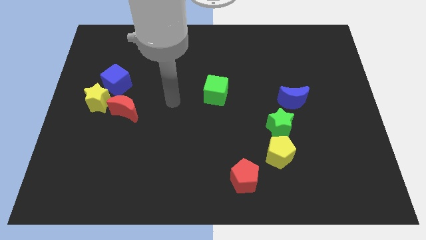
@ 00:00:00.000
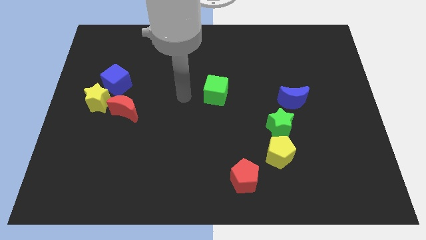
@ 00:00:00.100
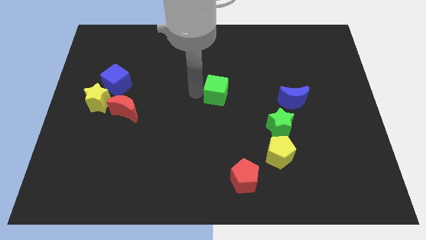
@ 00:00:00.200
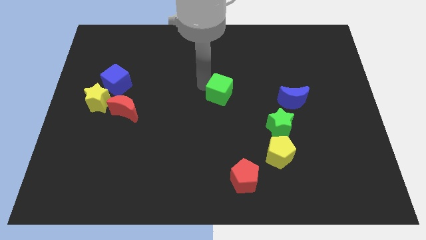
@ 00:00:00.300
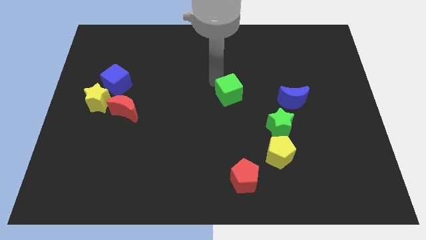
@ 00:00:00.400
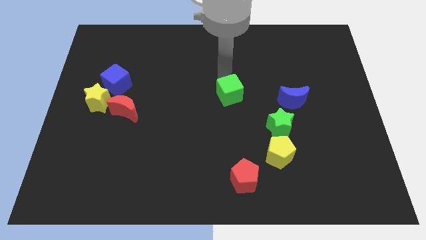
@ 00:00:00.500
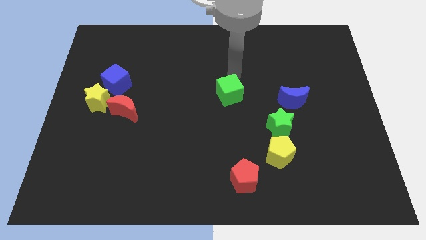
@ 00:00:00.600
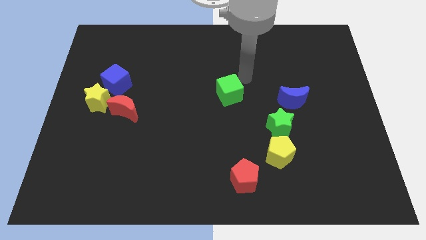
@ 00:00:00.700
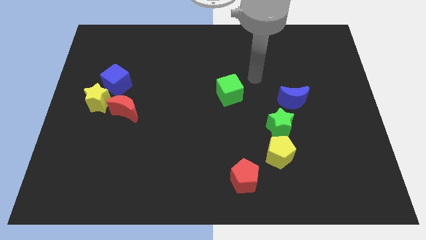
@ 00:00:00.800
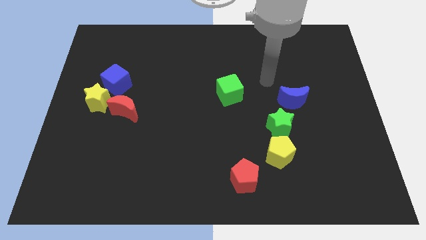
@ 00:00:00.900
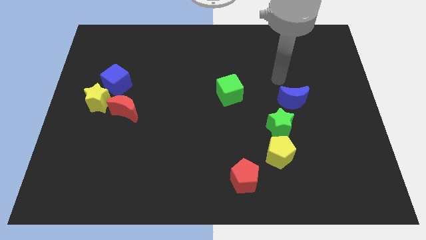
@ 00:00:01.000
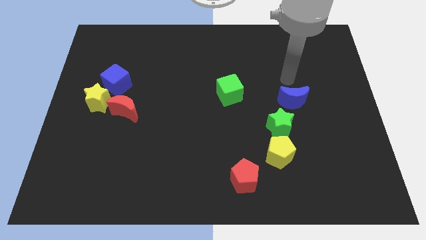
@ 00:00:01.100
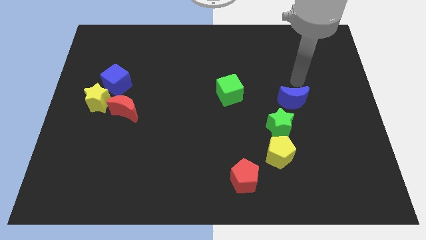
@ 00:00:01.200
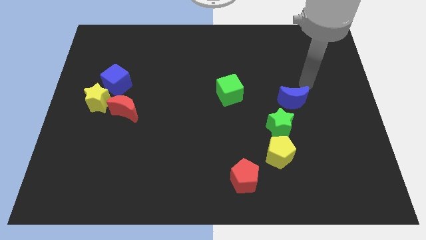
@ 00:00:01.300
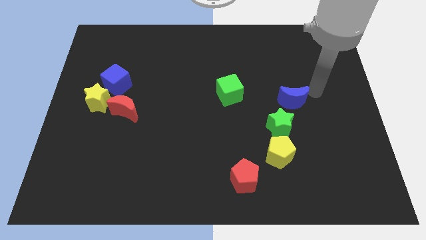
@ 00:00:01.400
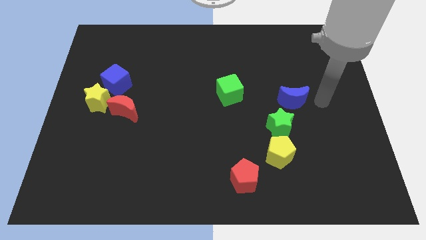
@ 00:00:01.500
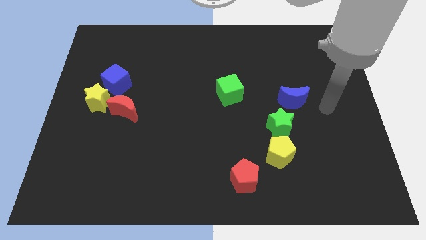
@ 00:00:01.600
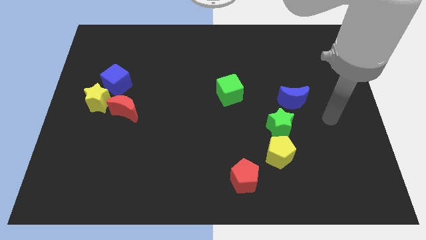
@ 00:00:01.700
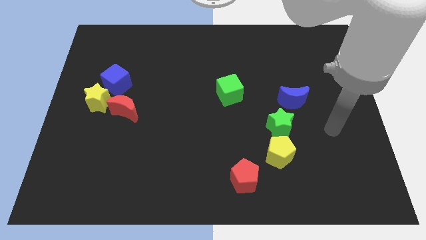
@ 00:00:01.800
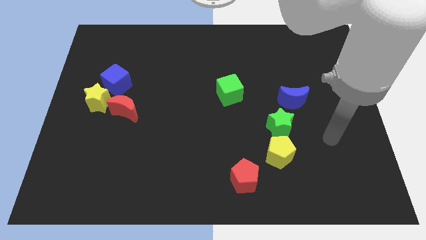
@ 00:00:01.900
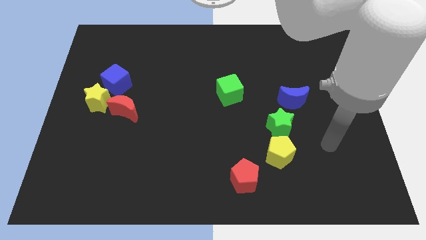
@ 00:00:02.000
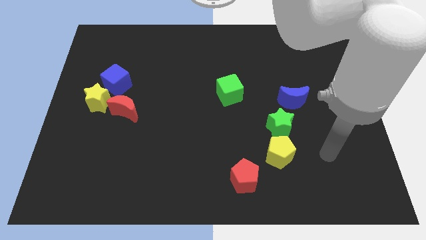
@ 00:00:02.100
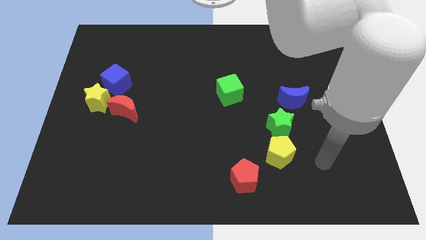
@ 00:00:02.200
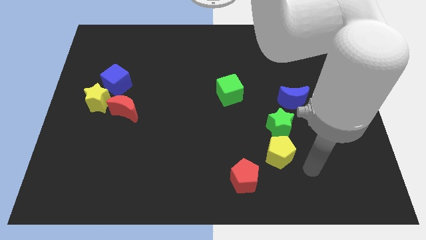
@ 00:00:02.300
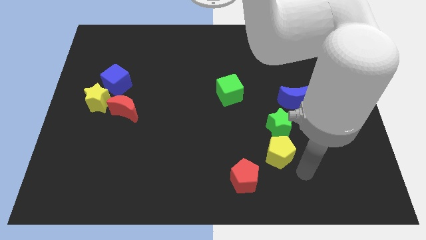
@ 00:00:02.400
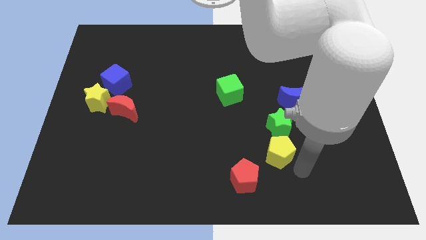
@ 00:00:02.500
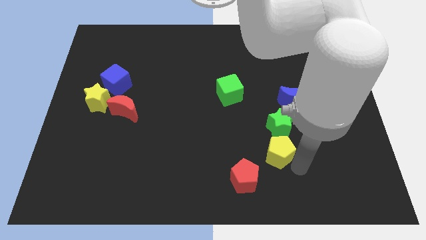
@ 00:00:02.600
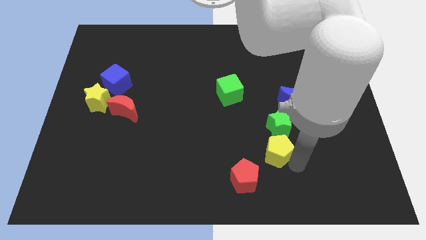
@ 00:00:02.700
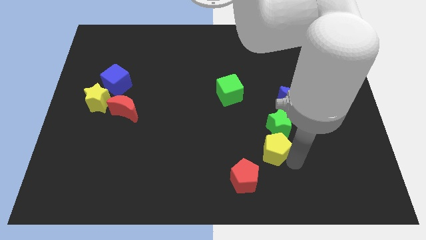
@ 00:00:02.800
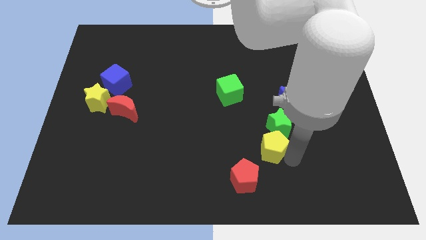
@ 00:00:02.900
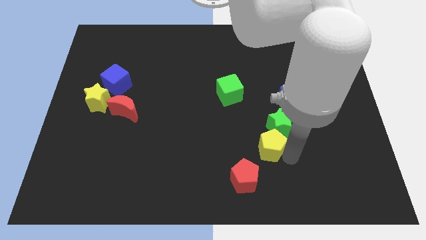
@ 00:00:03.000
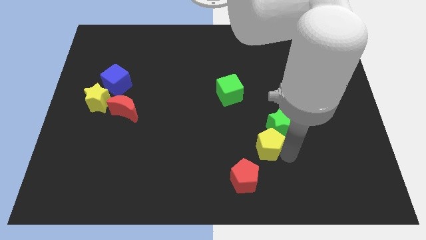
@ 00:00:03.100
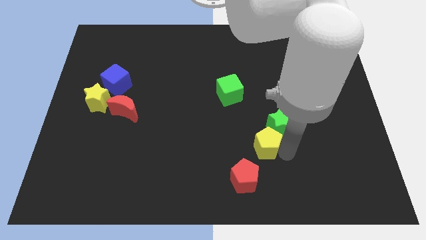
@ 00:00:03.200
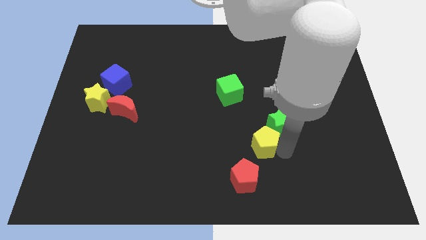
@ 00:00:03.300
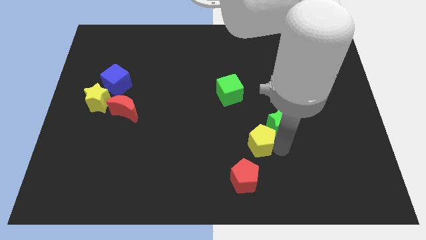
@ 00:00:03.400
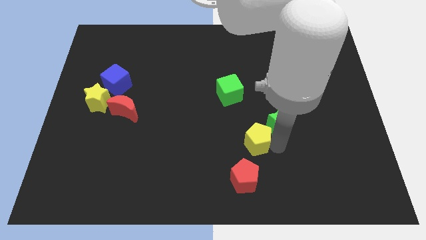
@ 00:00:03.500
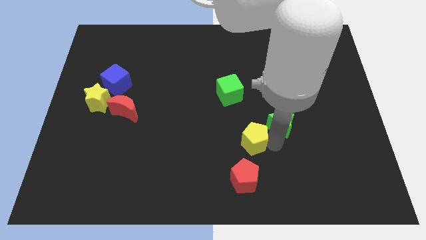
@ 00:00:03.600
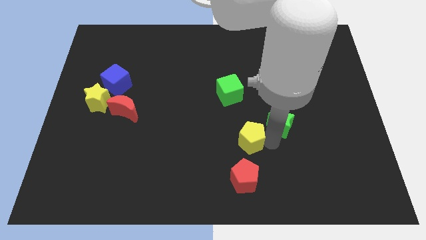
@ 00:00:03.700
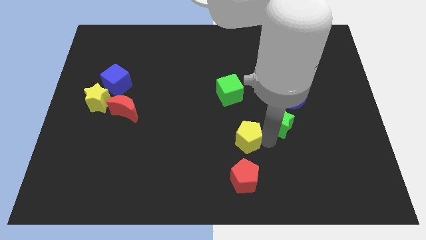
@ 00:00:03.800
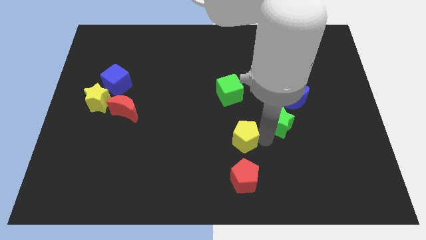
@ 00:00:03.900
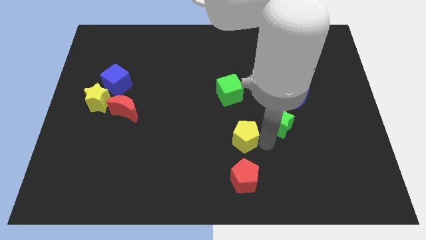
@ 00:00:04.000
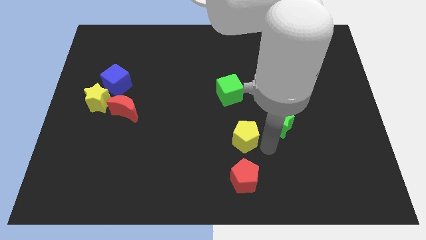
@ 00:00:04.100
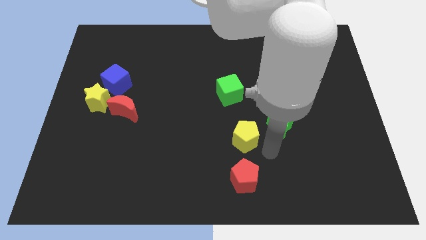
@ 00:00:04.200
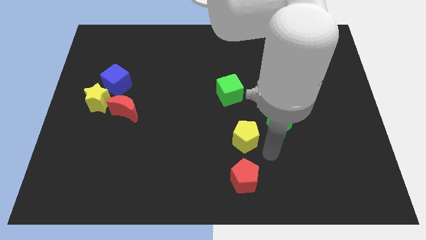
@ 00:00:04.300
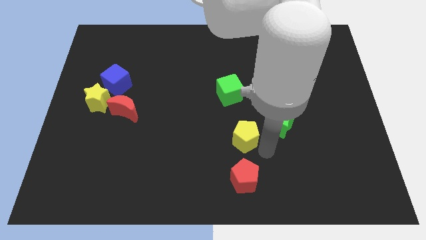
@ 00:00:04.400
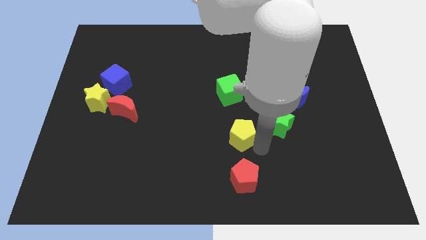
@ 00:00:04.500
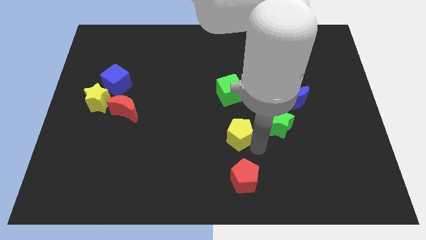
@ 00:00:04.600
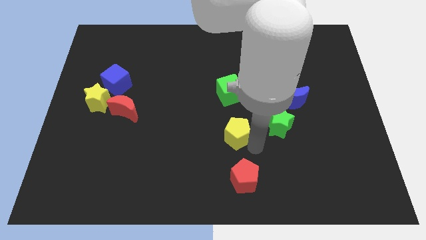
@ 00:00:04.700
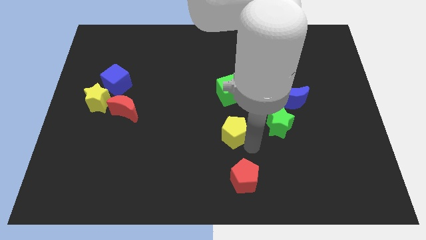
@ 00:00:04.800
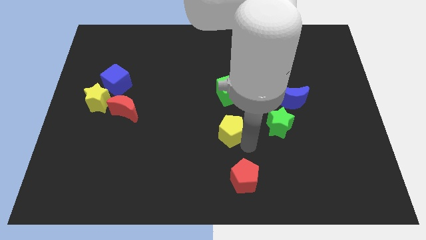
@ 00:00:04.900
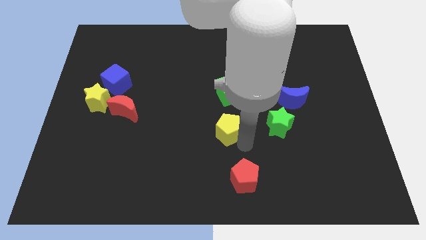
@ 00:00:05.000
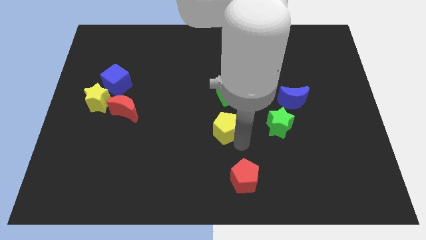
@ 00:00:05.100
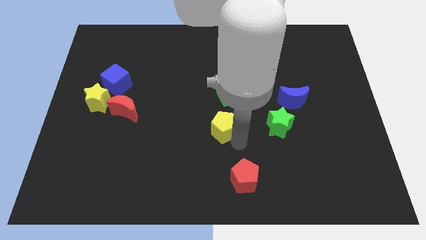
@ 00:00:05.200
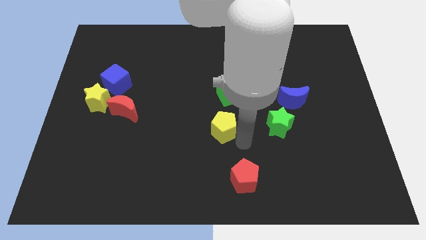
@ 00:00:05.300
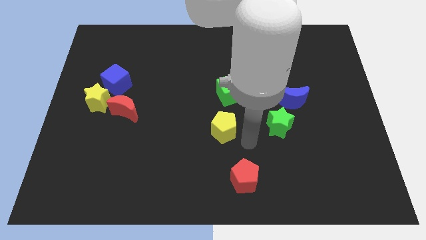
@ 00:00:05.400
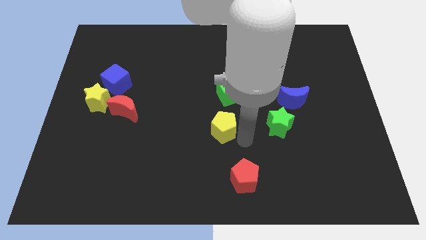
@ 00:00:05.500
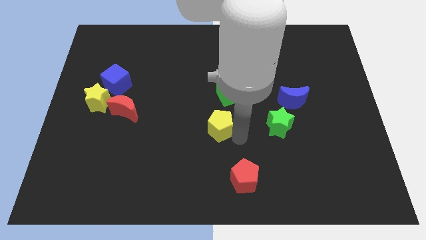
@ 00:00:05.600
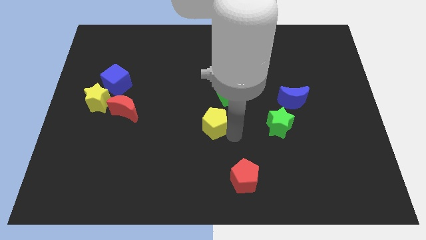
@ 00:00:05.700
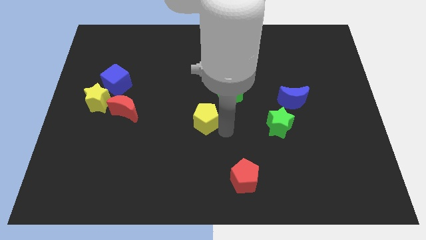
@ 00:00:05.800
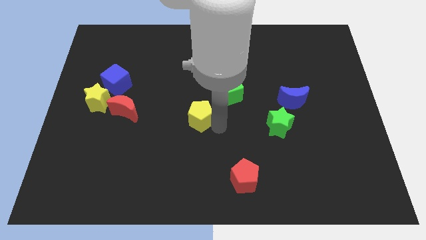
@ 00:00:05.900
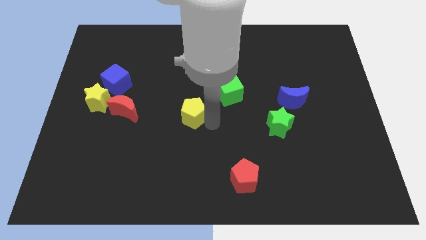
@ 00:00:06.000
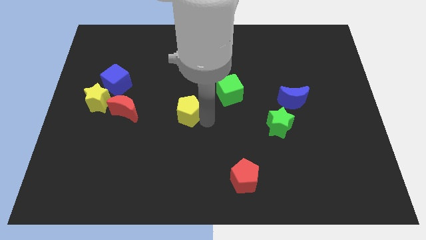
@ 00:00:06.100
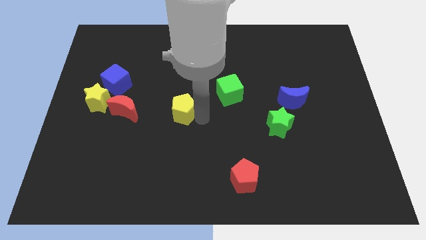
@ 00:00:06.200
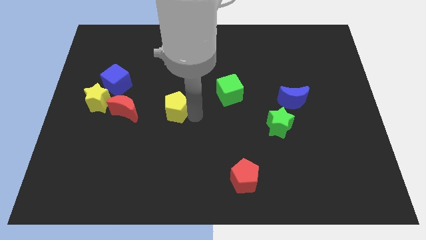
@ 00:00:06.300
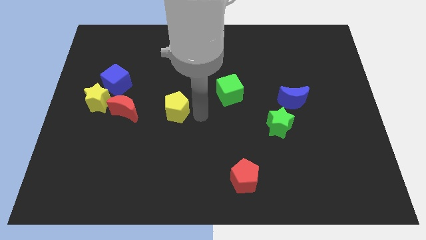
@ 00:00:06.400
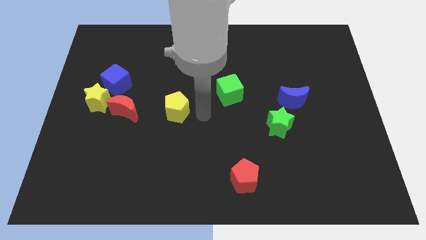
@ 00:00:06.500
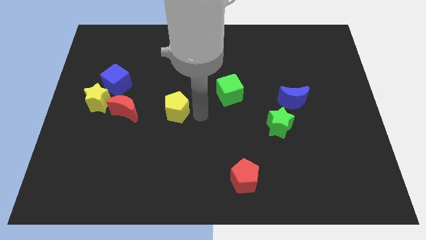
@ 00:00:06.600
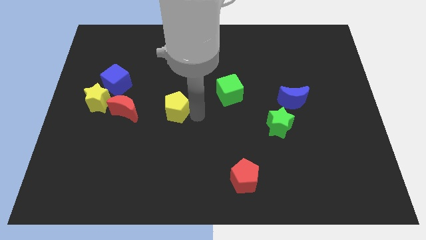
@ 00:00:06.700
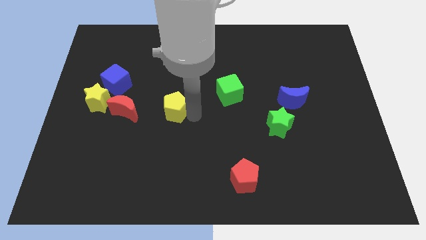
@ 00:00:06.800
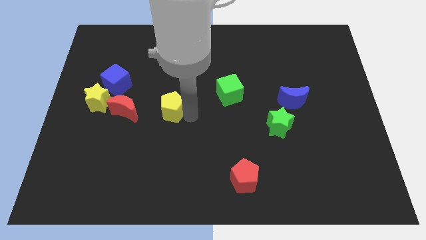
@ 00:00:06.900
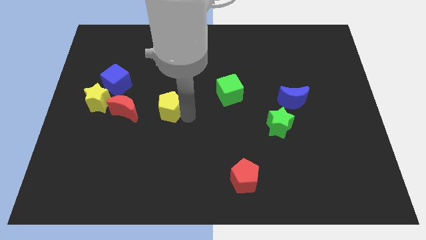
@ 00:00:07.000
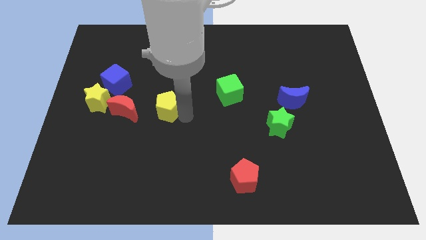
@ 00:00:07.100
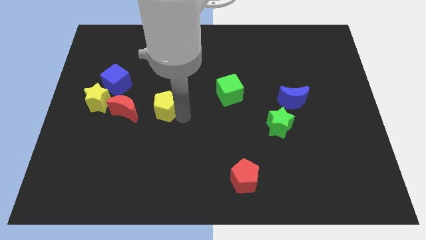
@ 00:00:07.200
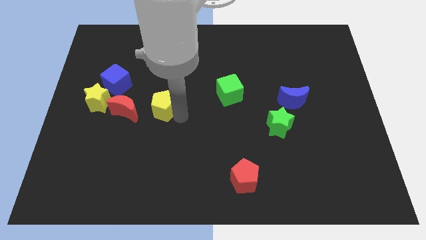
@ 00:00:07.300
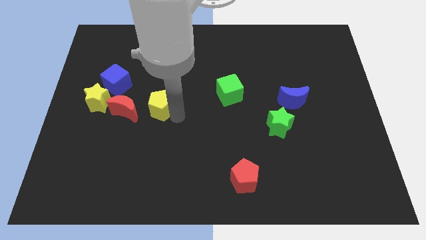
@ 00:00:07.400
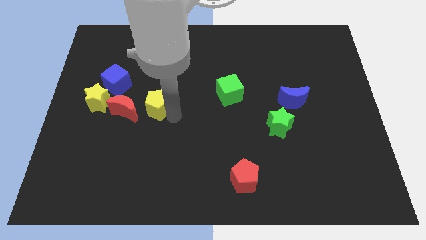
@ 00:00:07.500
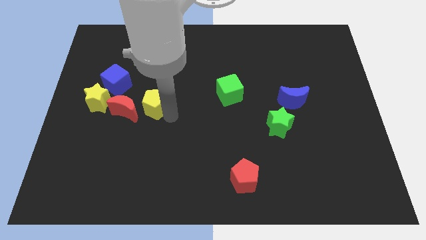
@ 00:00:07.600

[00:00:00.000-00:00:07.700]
slide the yellow pentagon to the bottom right of the blue cube
